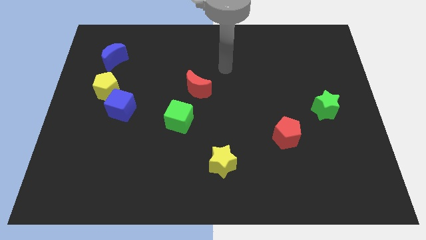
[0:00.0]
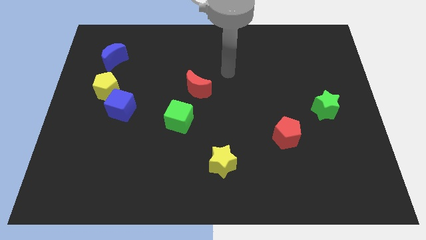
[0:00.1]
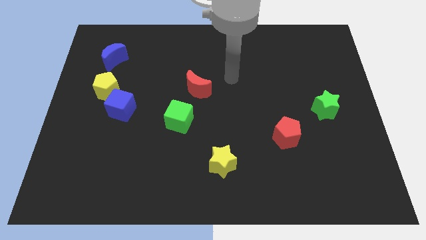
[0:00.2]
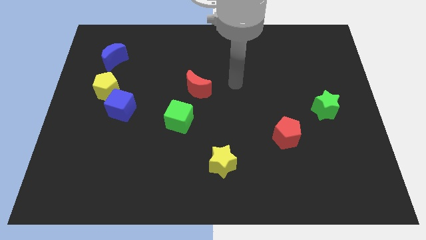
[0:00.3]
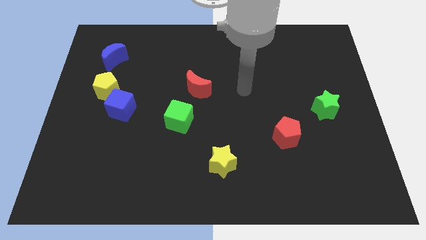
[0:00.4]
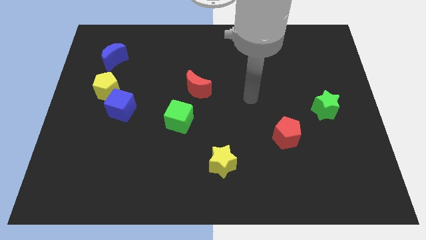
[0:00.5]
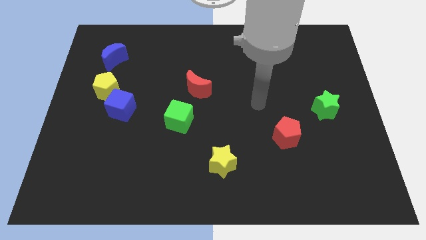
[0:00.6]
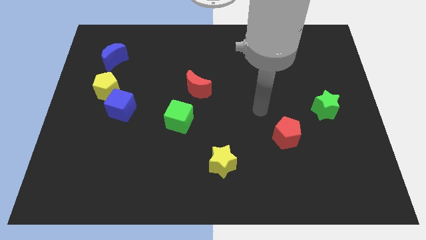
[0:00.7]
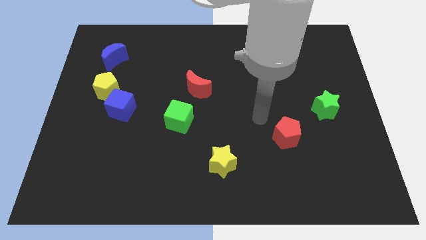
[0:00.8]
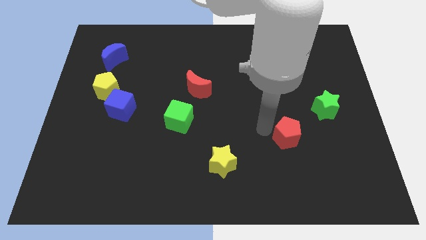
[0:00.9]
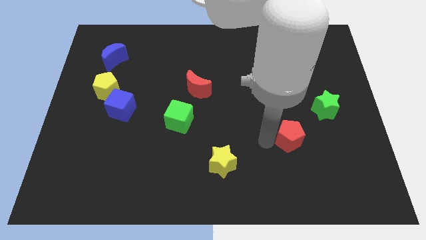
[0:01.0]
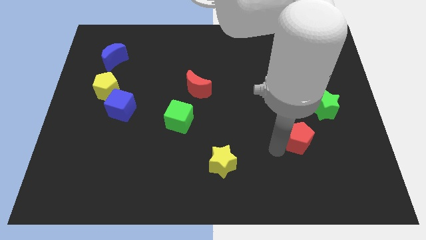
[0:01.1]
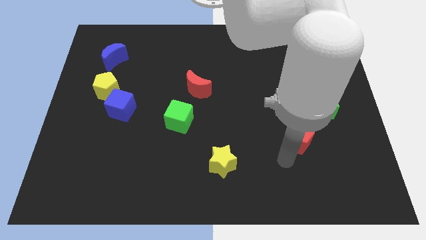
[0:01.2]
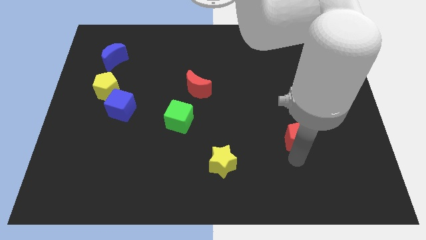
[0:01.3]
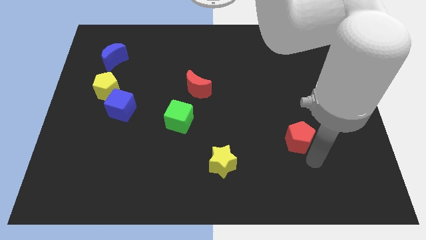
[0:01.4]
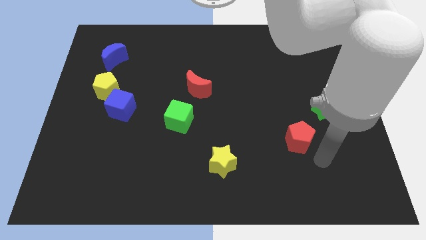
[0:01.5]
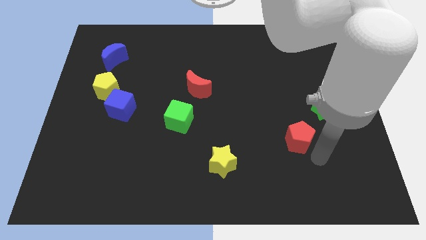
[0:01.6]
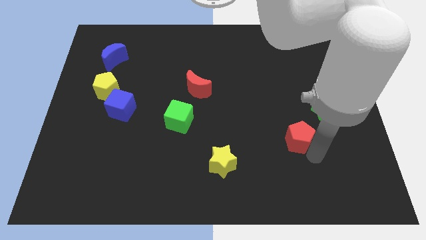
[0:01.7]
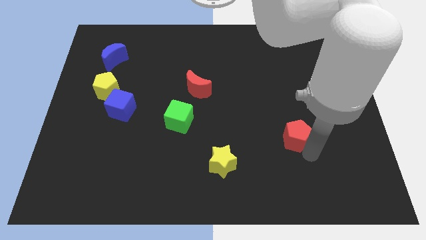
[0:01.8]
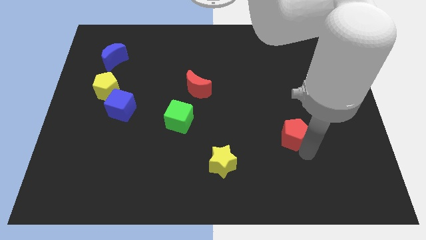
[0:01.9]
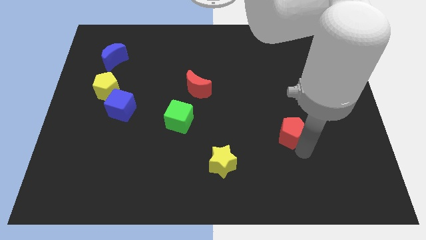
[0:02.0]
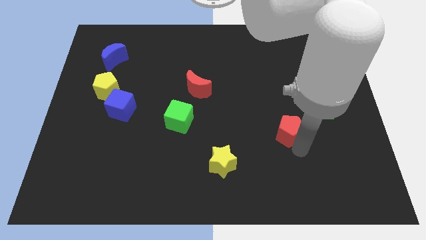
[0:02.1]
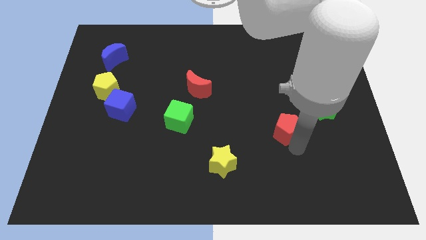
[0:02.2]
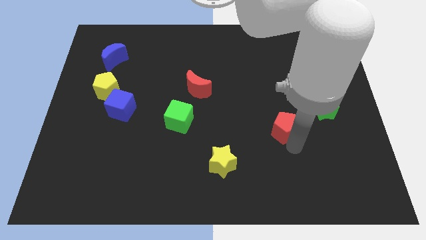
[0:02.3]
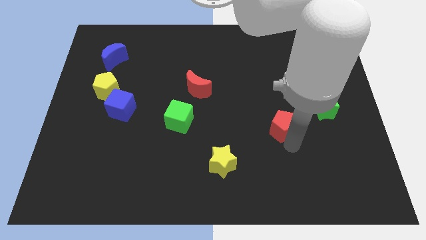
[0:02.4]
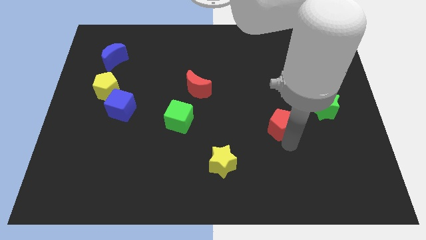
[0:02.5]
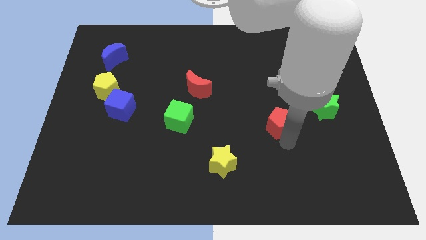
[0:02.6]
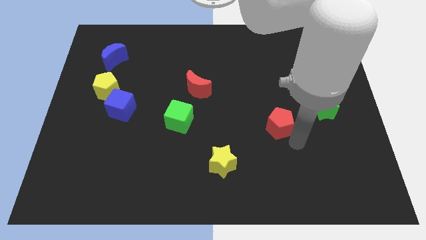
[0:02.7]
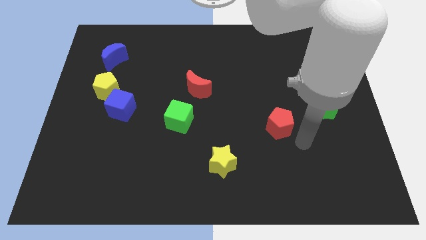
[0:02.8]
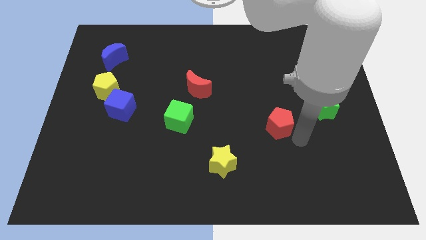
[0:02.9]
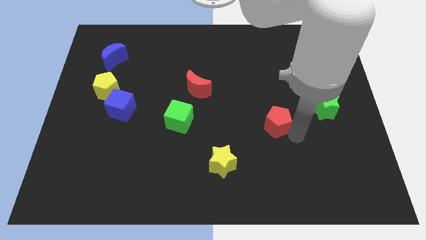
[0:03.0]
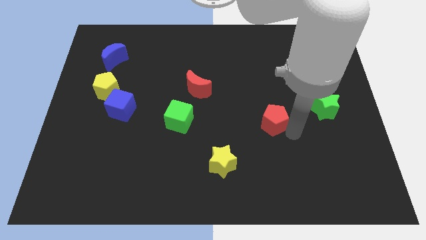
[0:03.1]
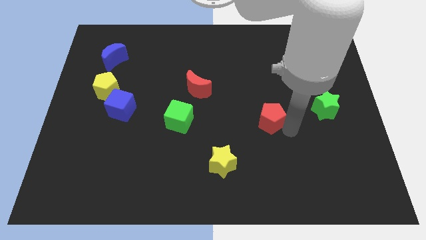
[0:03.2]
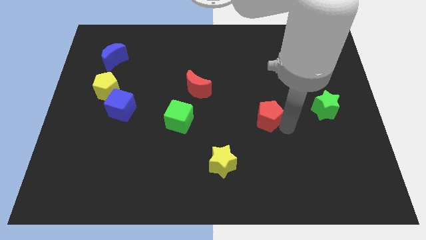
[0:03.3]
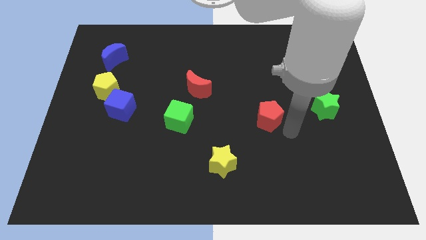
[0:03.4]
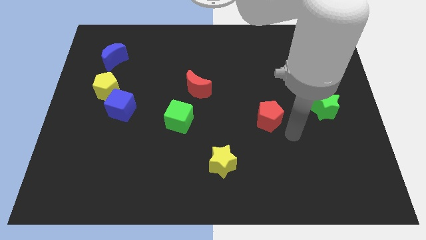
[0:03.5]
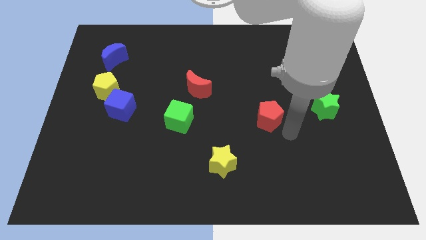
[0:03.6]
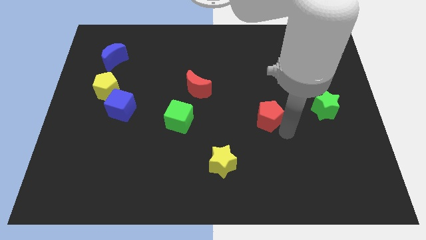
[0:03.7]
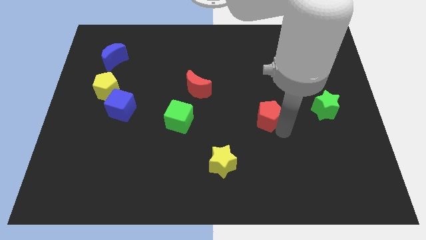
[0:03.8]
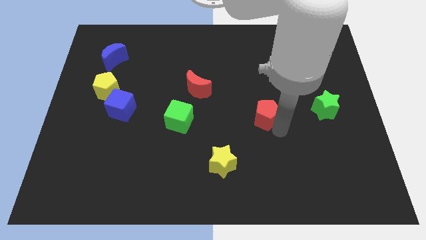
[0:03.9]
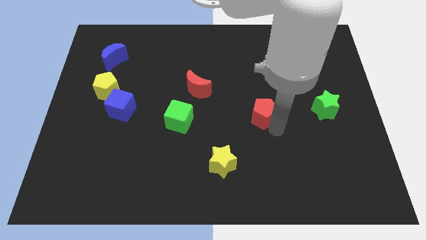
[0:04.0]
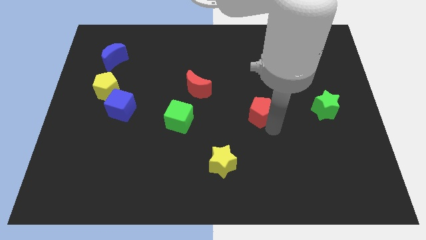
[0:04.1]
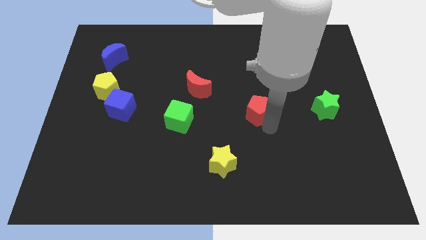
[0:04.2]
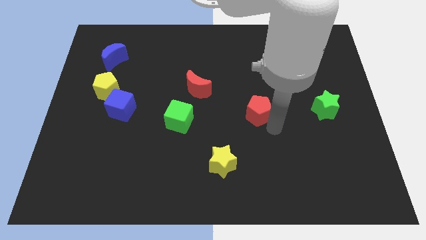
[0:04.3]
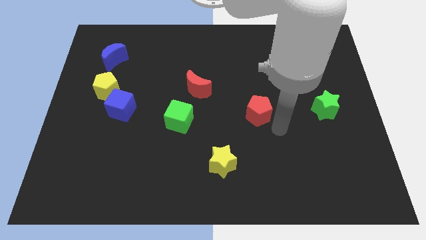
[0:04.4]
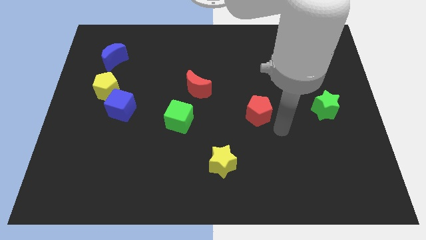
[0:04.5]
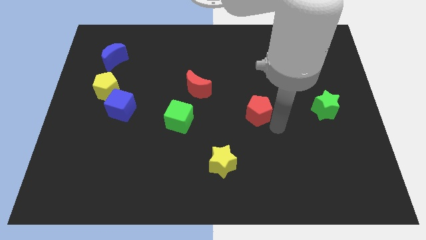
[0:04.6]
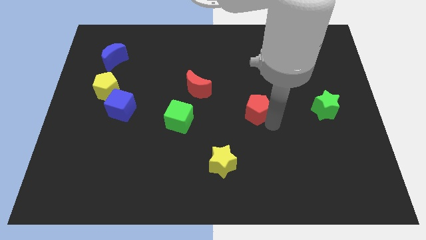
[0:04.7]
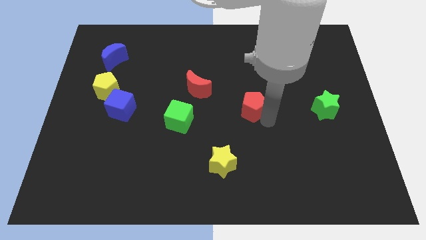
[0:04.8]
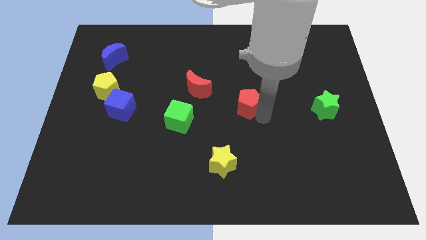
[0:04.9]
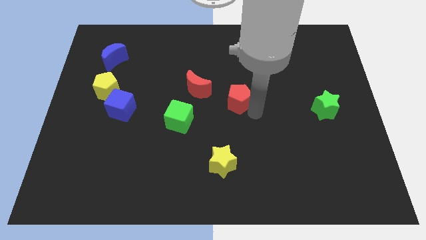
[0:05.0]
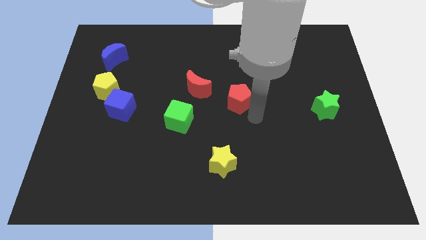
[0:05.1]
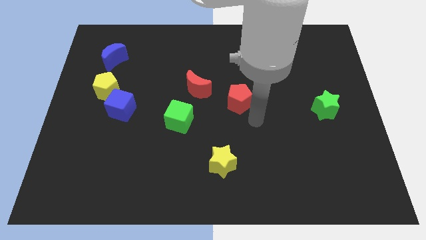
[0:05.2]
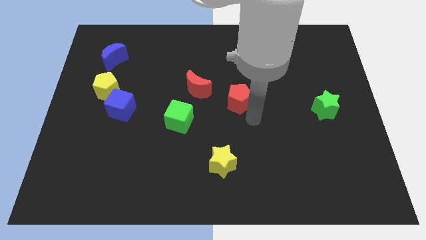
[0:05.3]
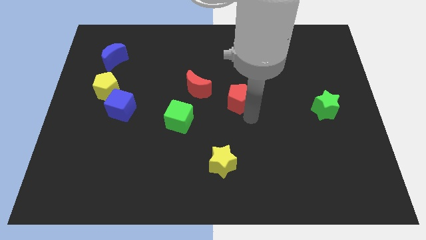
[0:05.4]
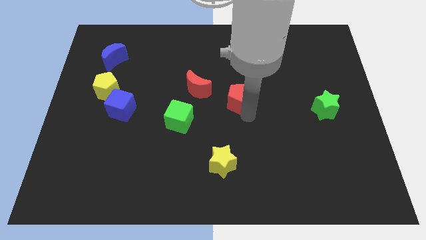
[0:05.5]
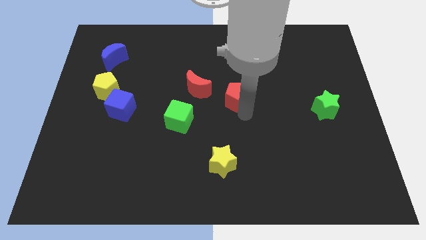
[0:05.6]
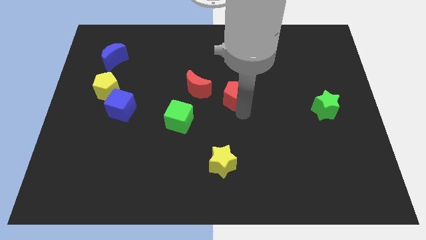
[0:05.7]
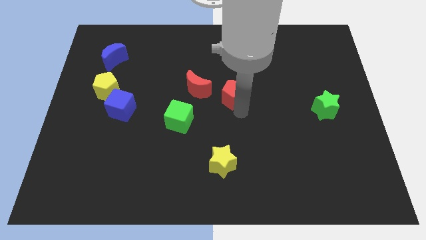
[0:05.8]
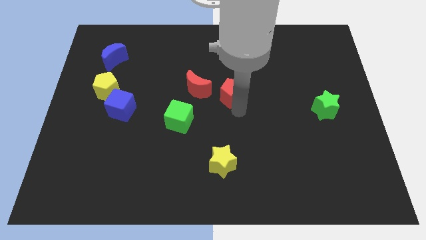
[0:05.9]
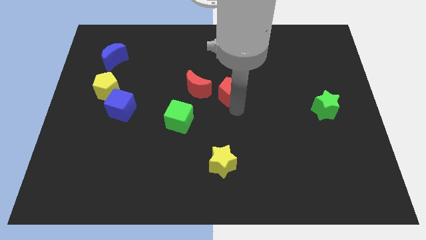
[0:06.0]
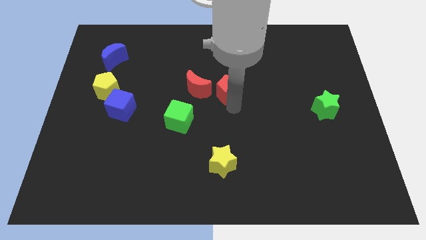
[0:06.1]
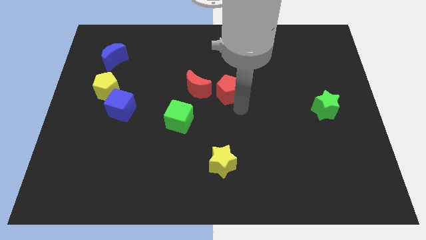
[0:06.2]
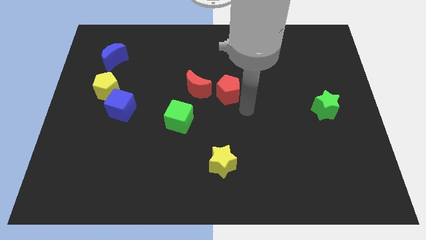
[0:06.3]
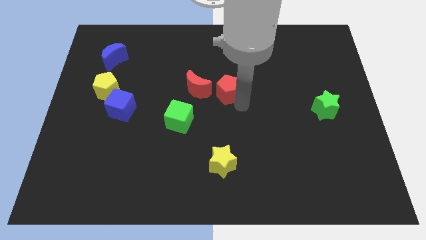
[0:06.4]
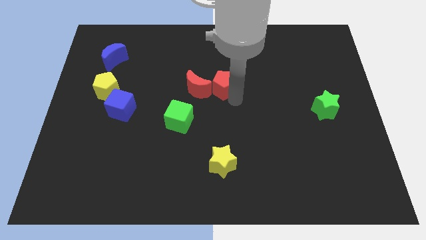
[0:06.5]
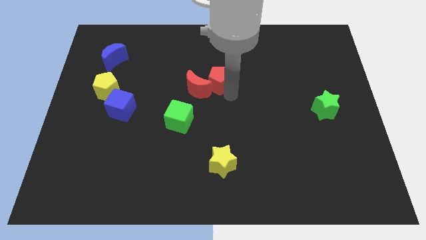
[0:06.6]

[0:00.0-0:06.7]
slide the red pentagon upwards and then to the left

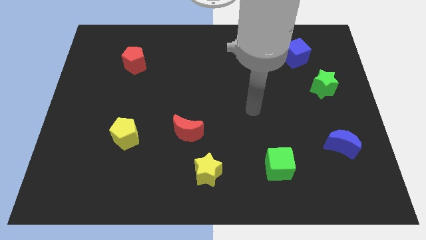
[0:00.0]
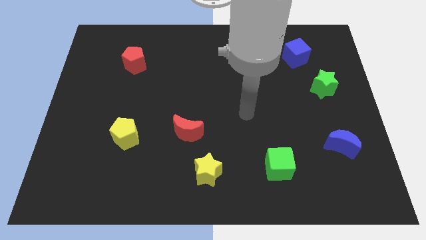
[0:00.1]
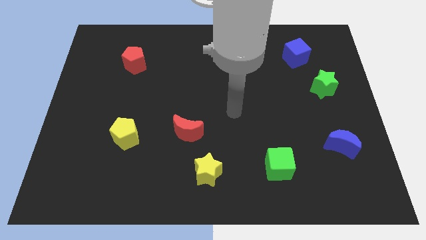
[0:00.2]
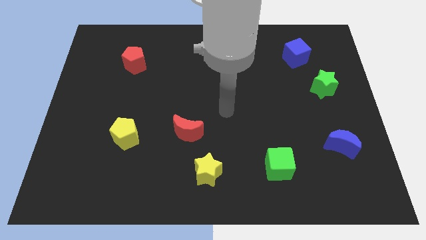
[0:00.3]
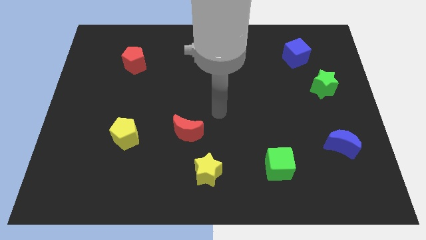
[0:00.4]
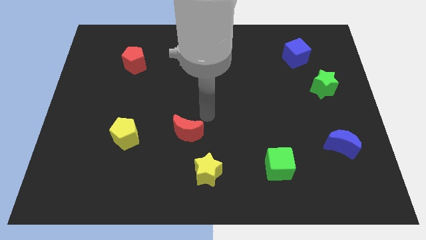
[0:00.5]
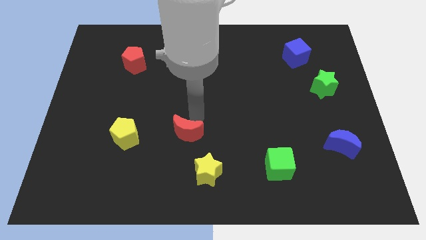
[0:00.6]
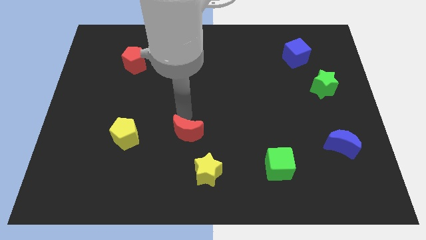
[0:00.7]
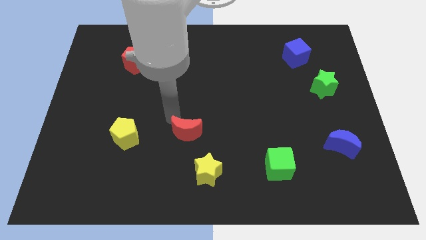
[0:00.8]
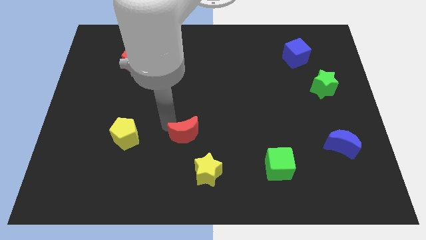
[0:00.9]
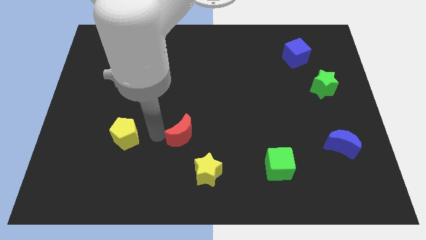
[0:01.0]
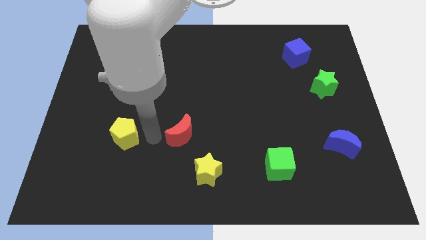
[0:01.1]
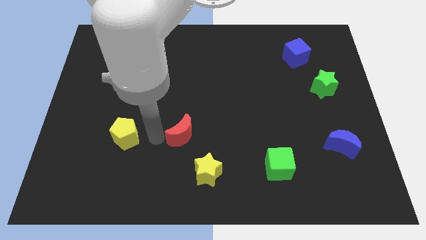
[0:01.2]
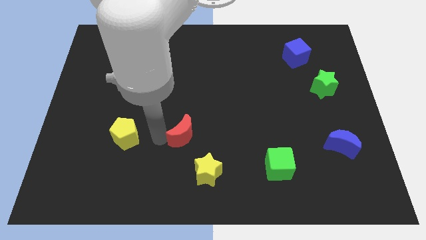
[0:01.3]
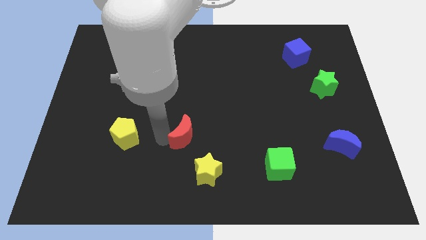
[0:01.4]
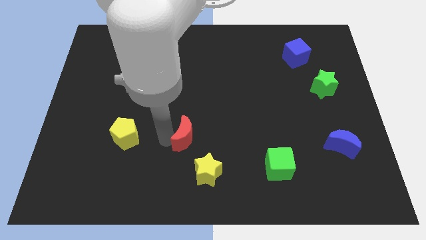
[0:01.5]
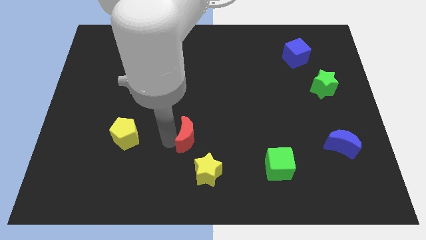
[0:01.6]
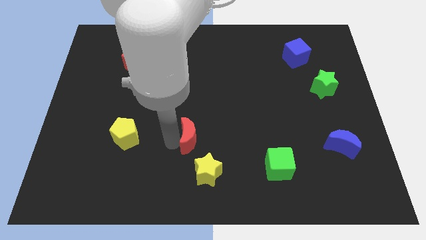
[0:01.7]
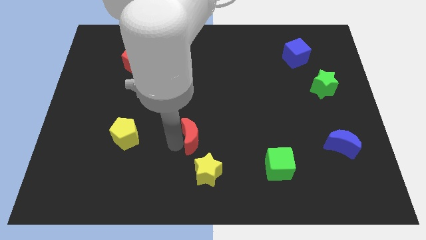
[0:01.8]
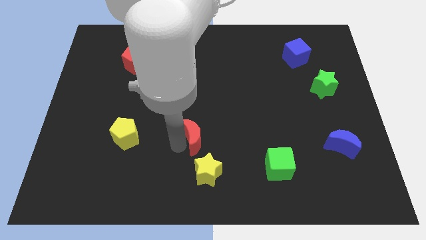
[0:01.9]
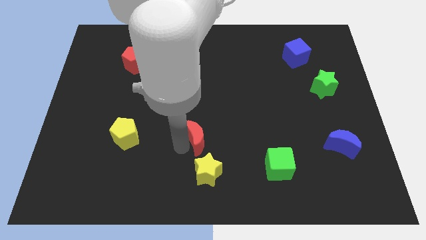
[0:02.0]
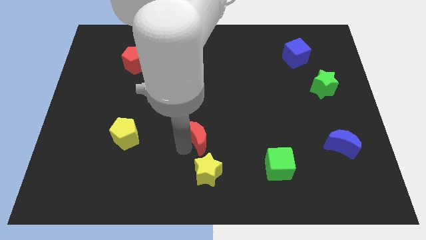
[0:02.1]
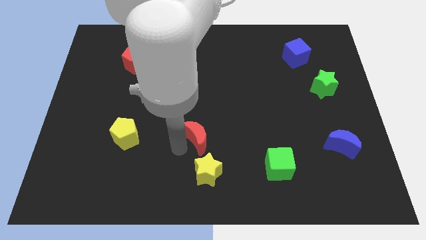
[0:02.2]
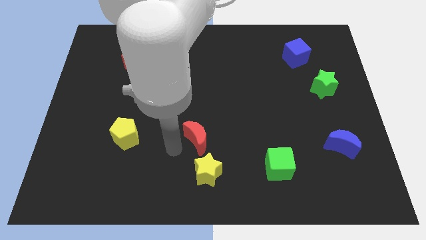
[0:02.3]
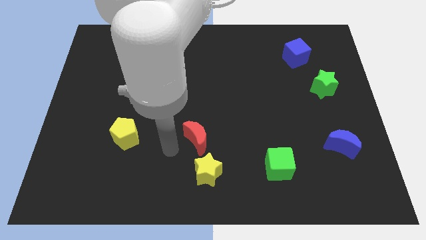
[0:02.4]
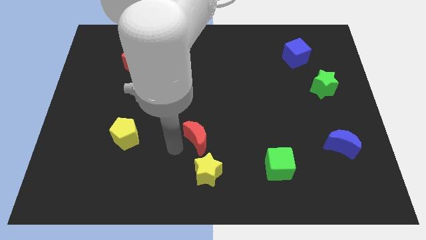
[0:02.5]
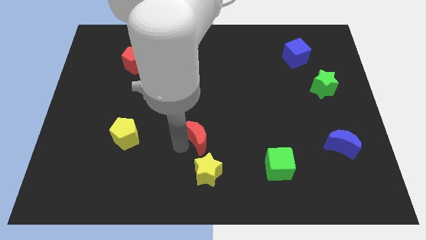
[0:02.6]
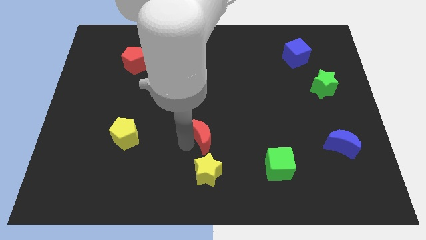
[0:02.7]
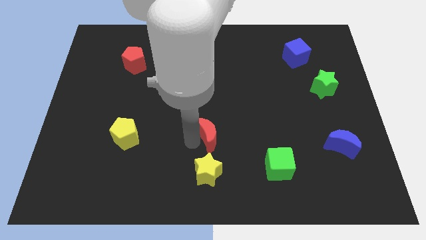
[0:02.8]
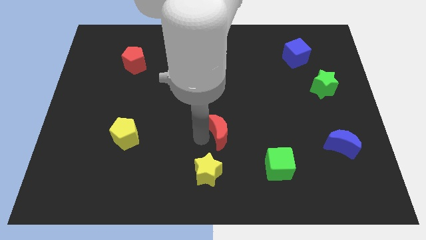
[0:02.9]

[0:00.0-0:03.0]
slide the red moon right a bit
